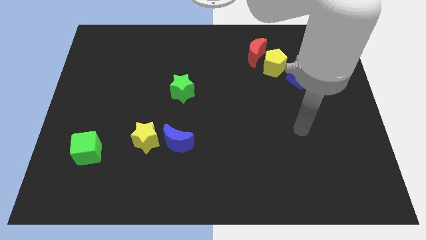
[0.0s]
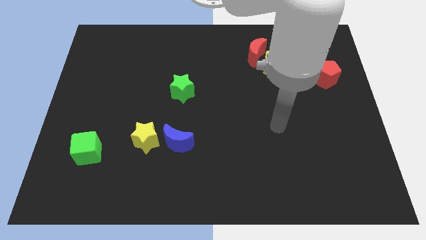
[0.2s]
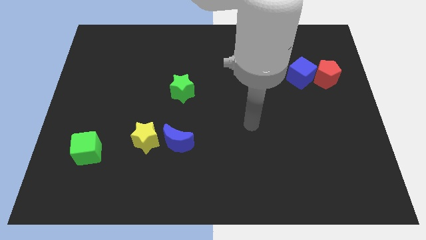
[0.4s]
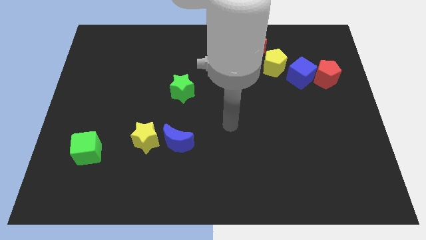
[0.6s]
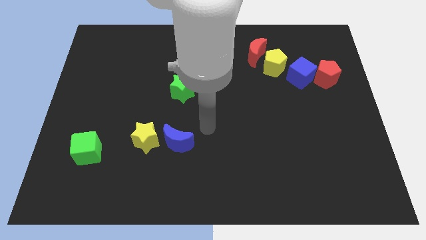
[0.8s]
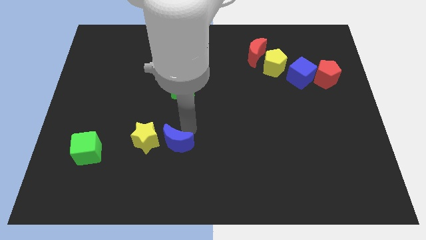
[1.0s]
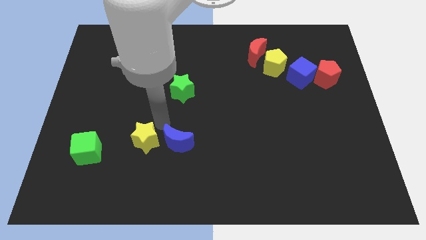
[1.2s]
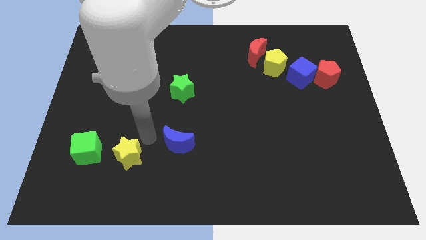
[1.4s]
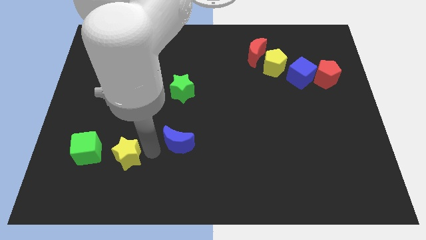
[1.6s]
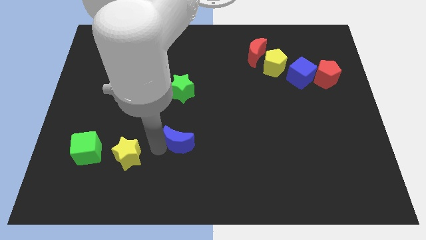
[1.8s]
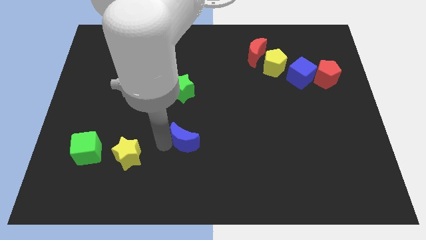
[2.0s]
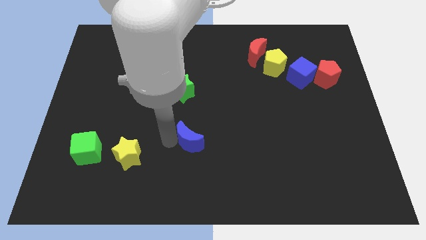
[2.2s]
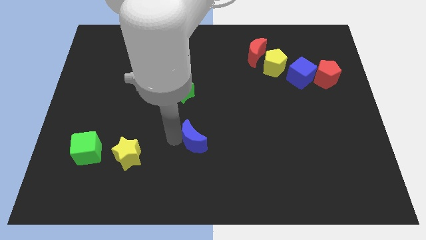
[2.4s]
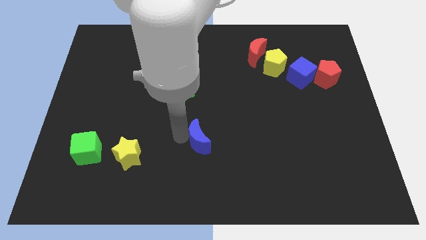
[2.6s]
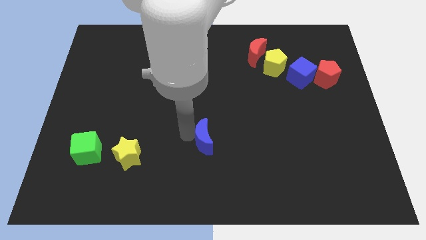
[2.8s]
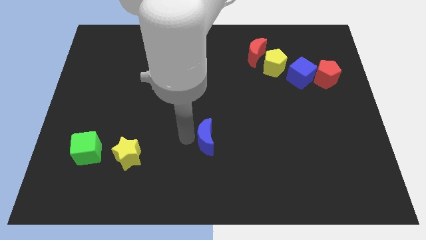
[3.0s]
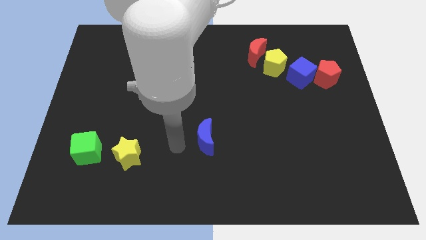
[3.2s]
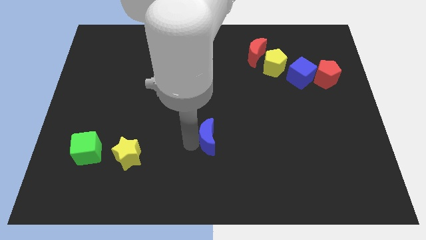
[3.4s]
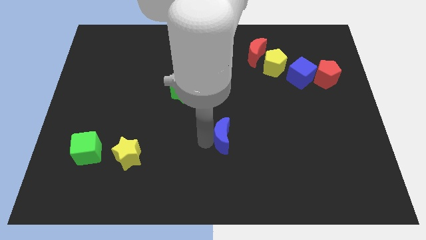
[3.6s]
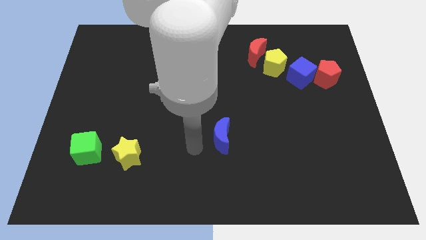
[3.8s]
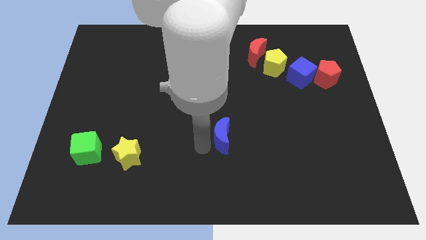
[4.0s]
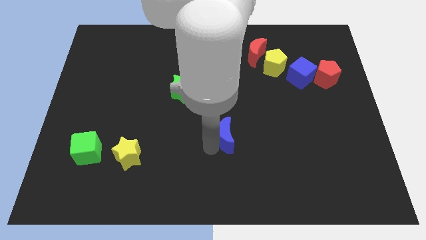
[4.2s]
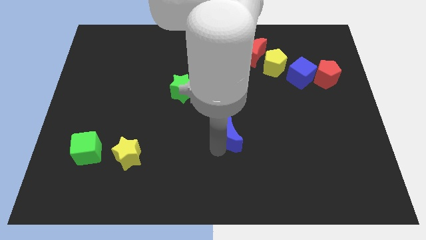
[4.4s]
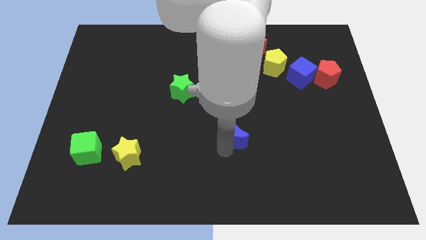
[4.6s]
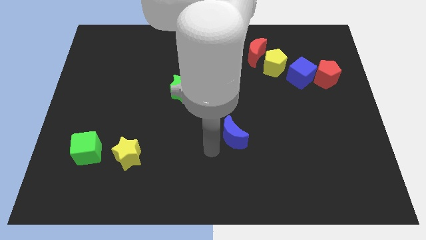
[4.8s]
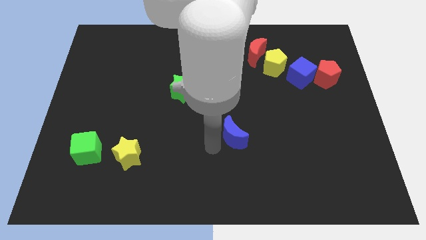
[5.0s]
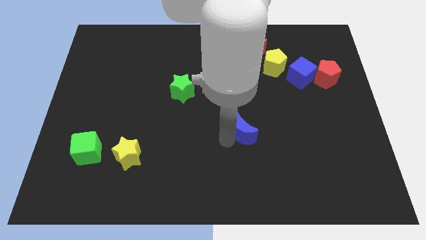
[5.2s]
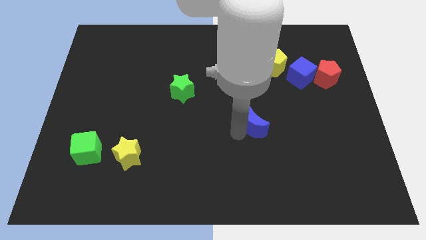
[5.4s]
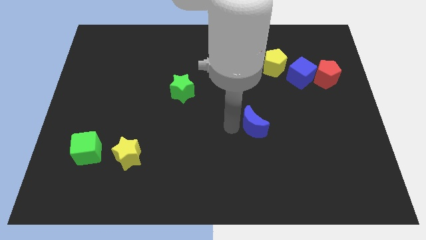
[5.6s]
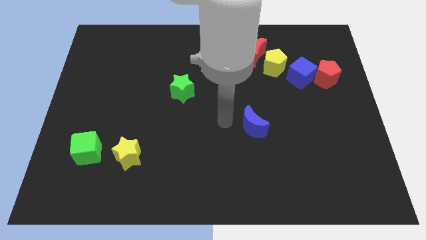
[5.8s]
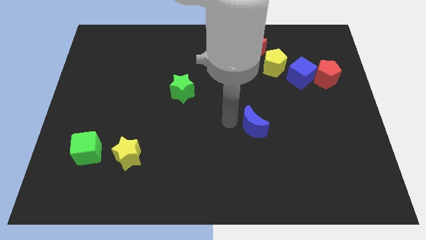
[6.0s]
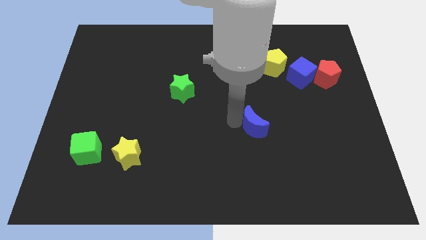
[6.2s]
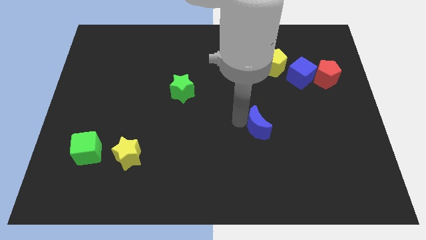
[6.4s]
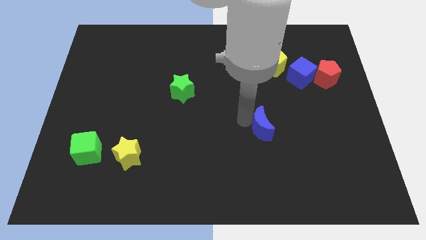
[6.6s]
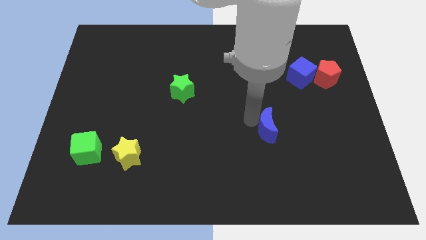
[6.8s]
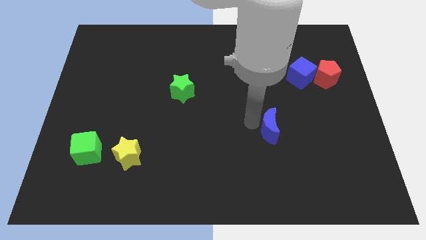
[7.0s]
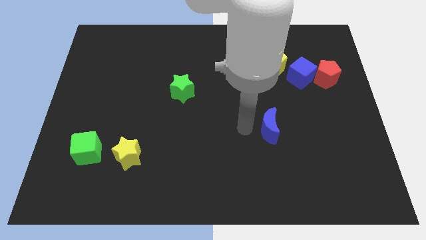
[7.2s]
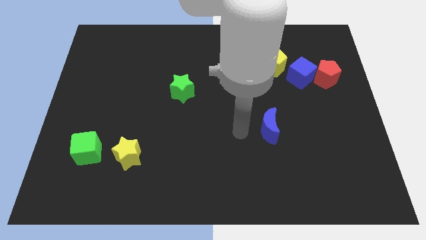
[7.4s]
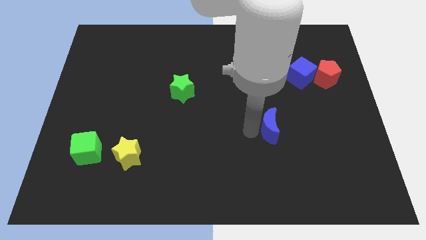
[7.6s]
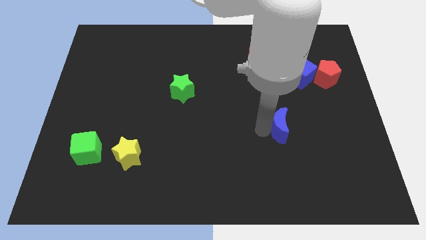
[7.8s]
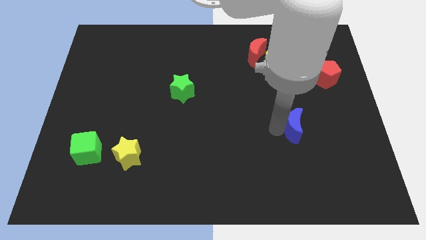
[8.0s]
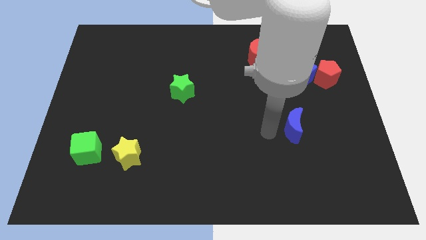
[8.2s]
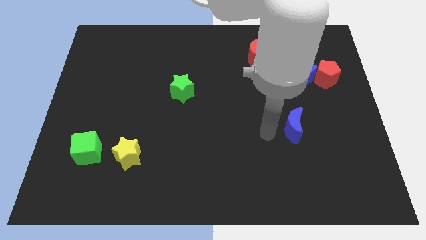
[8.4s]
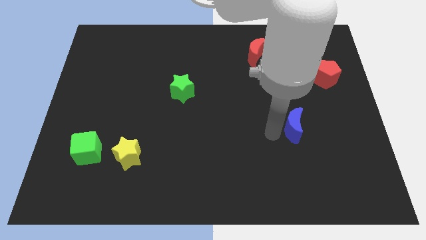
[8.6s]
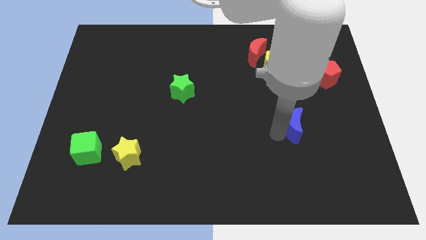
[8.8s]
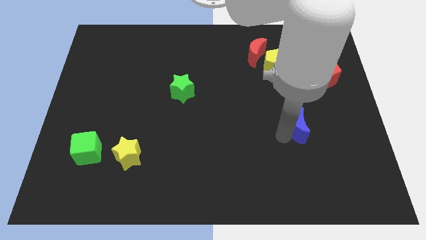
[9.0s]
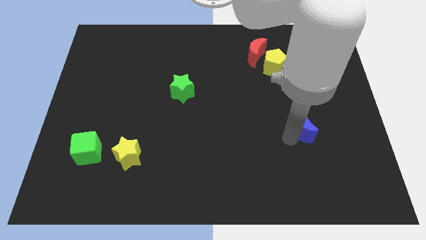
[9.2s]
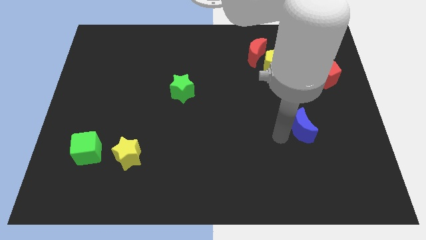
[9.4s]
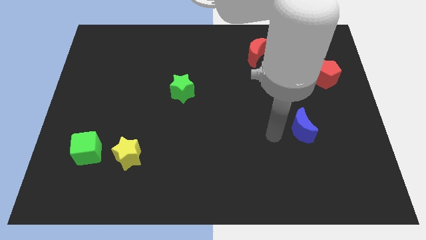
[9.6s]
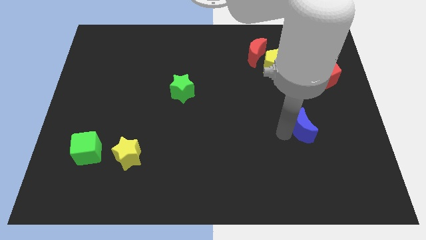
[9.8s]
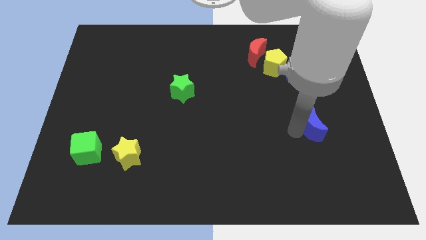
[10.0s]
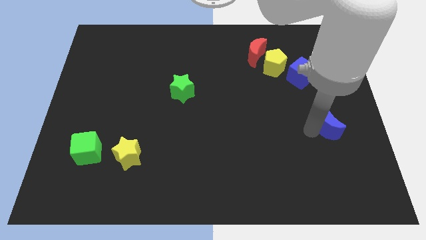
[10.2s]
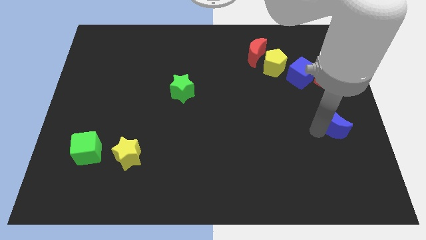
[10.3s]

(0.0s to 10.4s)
push the blue moon to the right side of the board

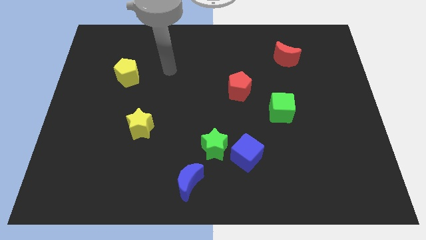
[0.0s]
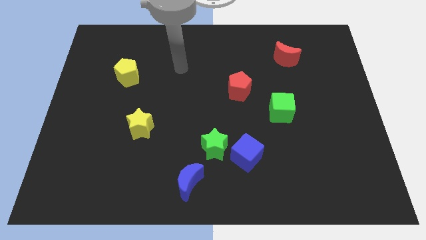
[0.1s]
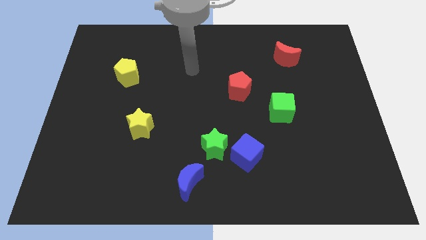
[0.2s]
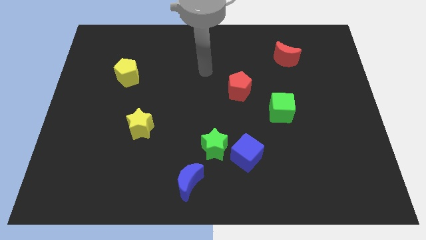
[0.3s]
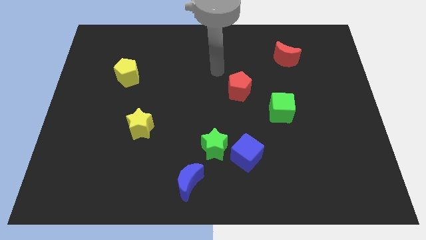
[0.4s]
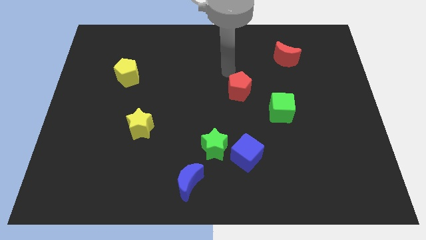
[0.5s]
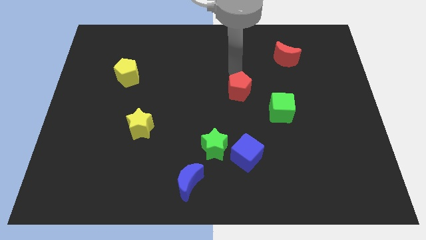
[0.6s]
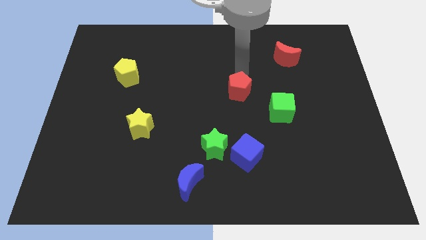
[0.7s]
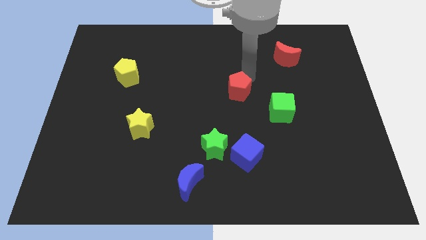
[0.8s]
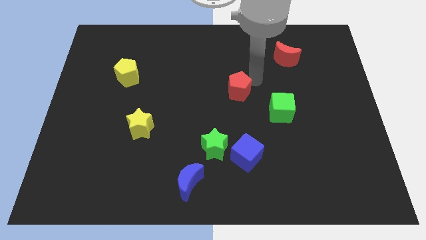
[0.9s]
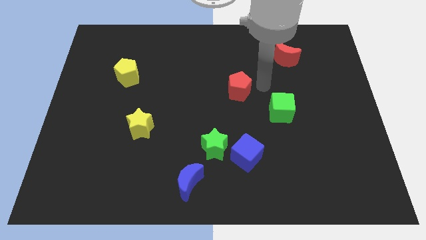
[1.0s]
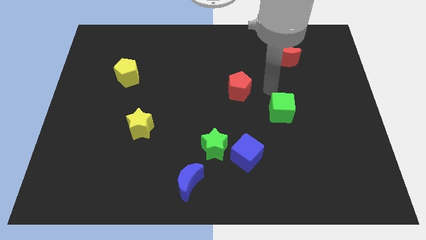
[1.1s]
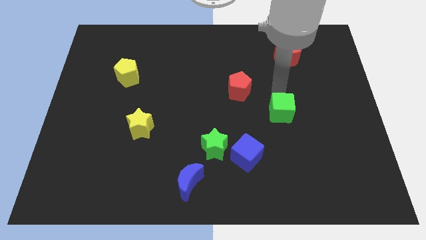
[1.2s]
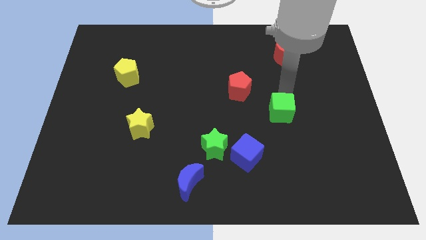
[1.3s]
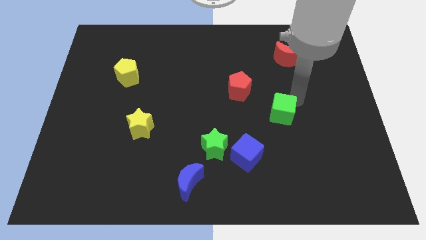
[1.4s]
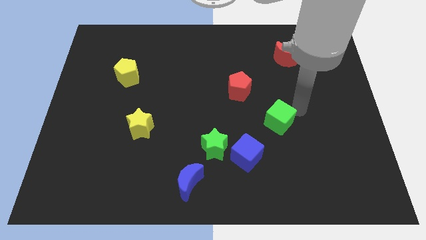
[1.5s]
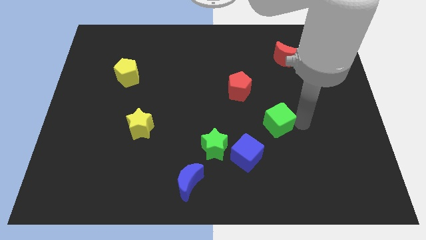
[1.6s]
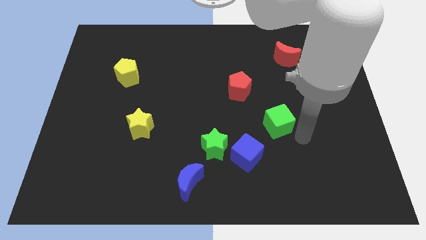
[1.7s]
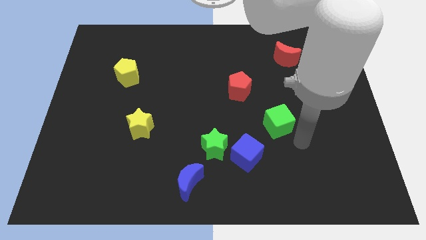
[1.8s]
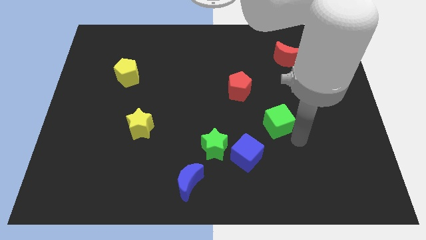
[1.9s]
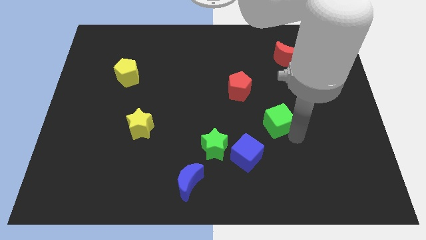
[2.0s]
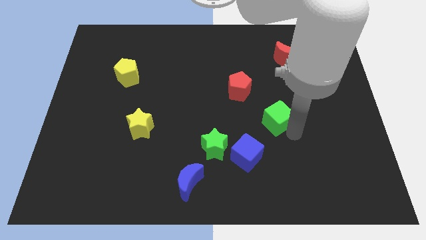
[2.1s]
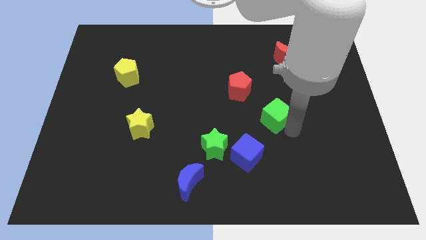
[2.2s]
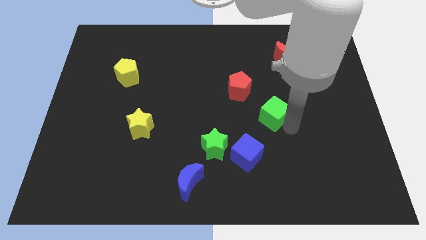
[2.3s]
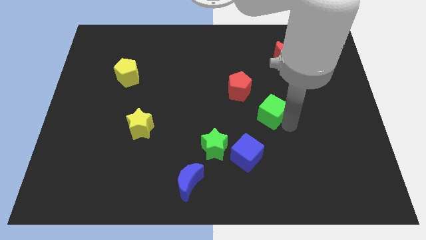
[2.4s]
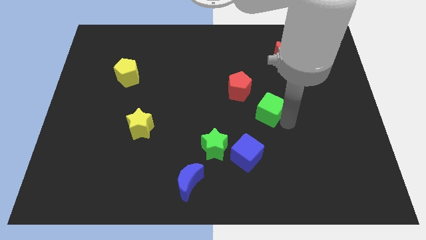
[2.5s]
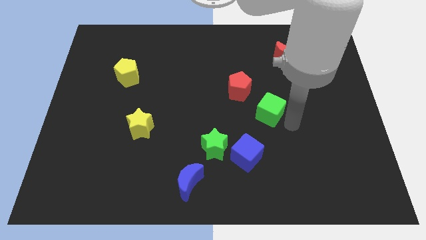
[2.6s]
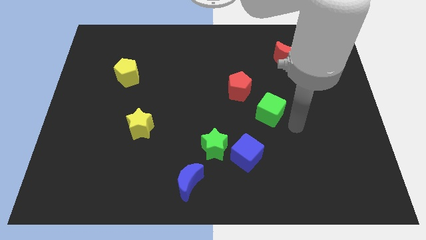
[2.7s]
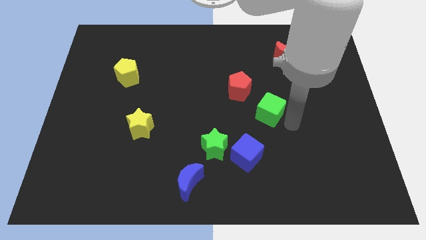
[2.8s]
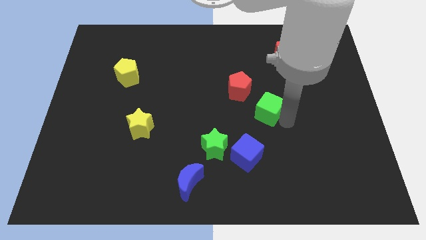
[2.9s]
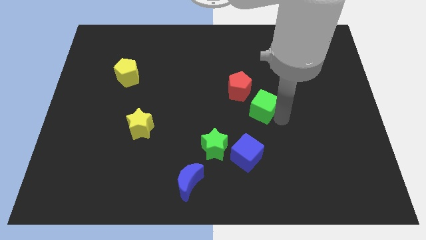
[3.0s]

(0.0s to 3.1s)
slide the green cube to the middle
